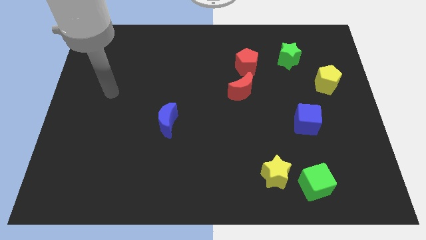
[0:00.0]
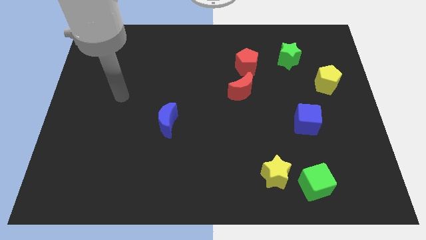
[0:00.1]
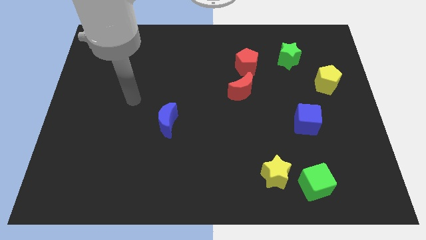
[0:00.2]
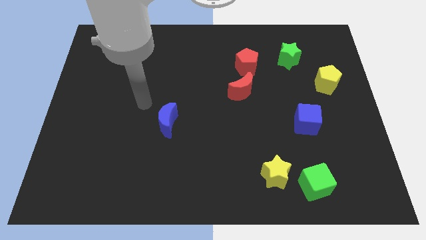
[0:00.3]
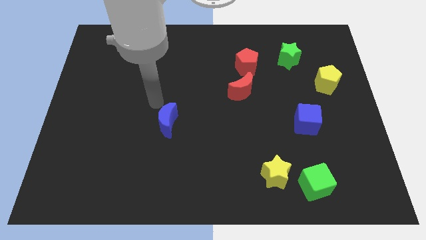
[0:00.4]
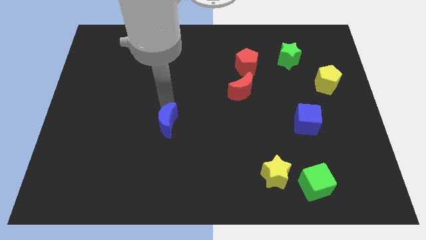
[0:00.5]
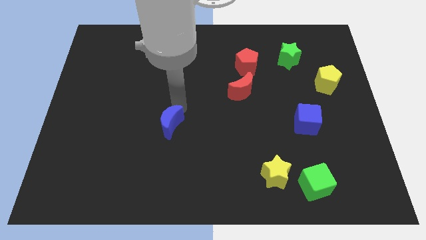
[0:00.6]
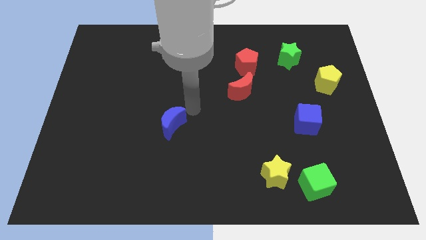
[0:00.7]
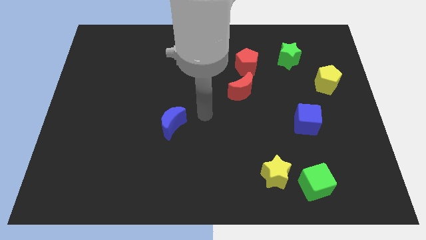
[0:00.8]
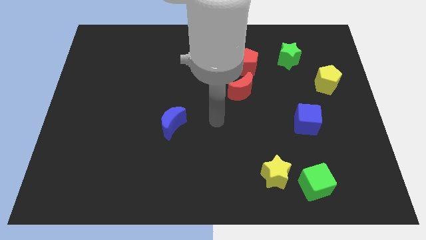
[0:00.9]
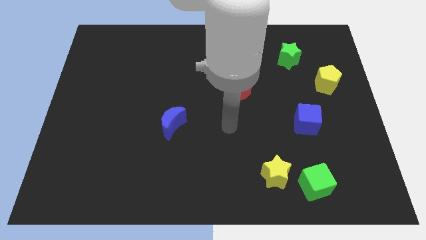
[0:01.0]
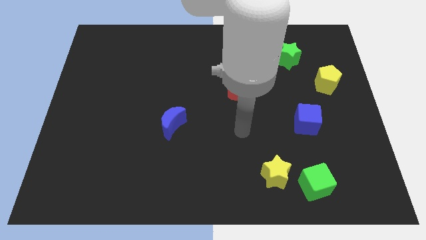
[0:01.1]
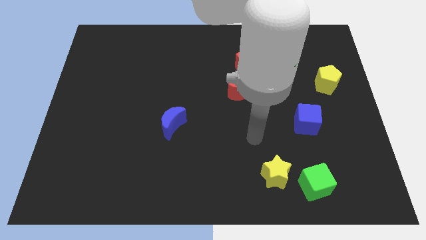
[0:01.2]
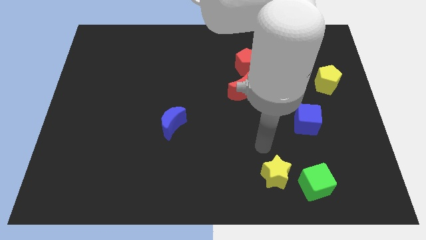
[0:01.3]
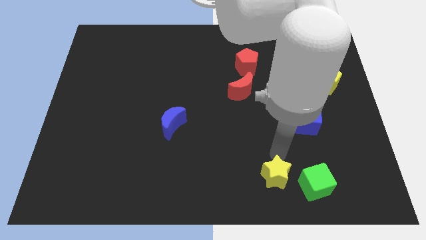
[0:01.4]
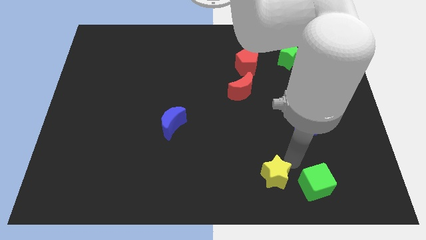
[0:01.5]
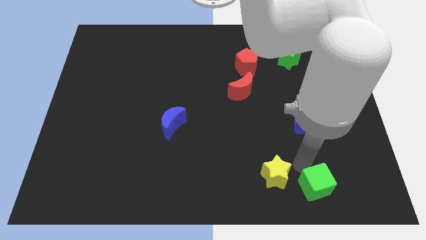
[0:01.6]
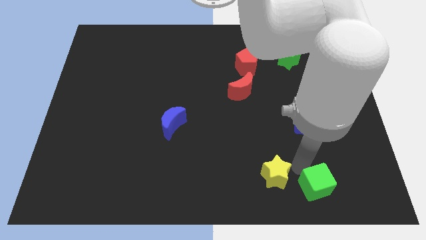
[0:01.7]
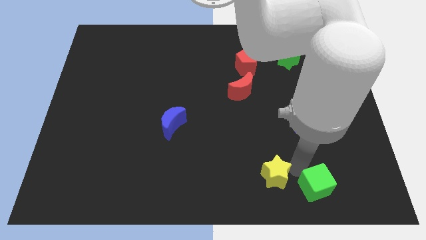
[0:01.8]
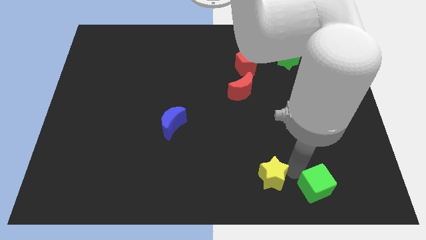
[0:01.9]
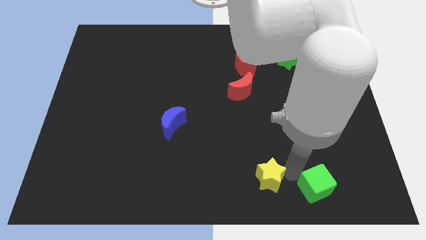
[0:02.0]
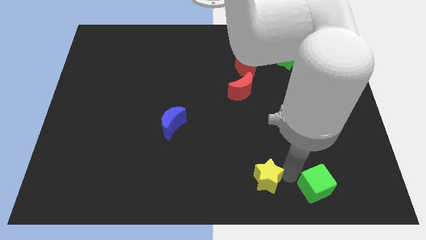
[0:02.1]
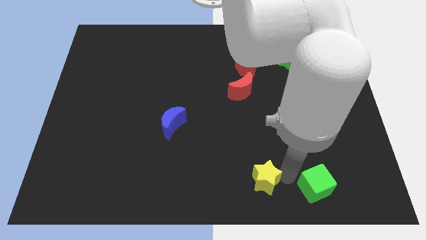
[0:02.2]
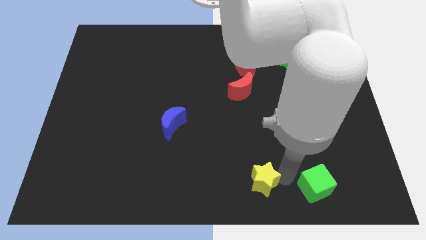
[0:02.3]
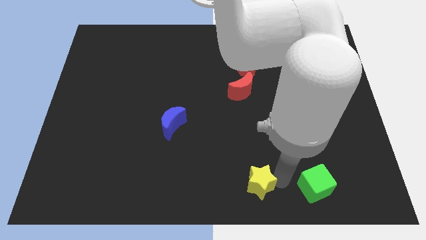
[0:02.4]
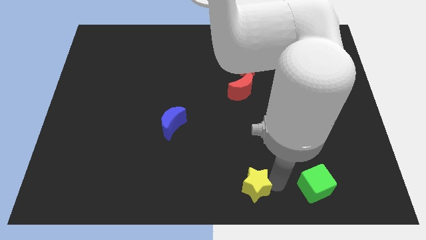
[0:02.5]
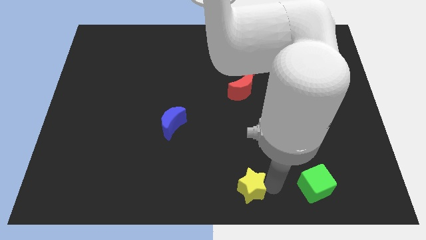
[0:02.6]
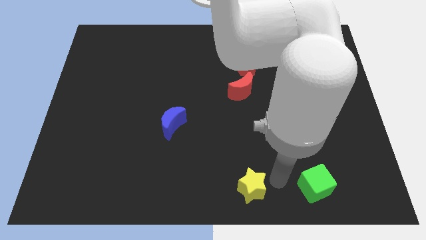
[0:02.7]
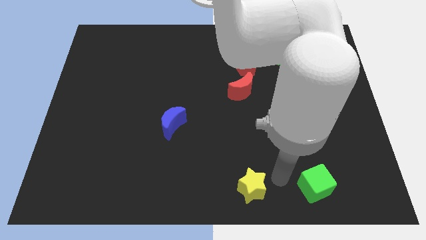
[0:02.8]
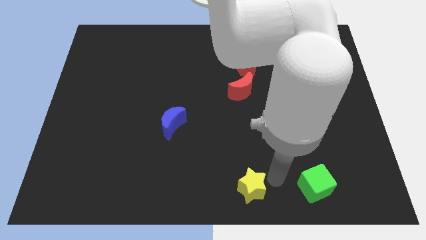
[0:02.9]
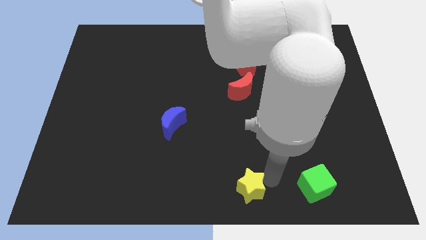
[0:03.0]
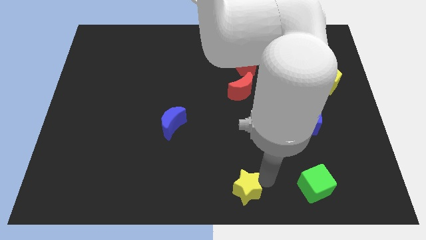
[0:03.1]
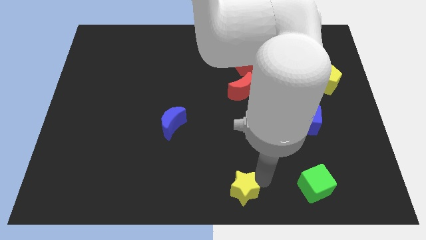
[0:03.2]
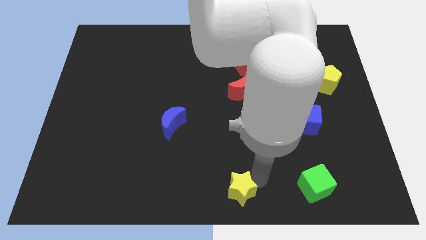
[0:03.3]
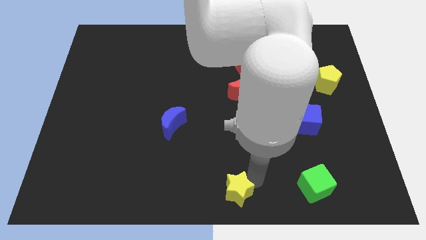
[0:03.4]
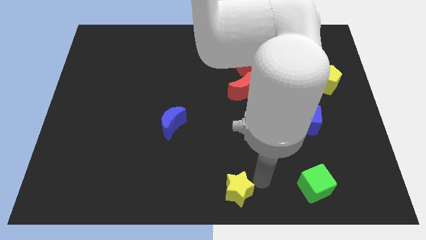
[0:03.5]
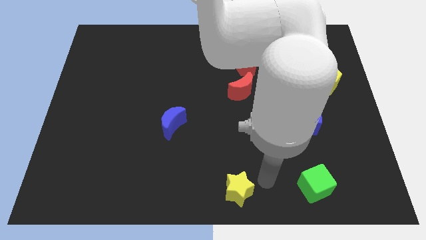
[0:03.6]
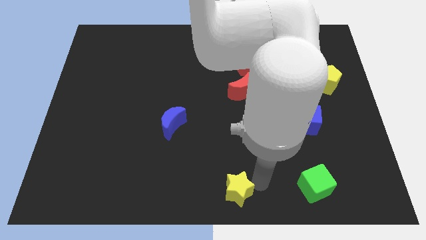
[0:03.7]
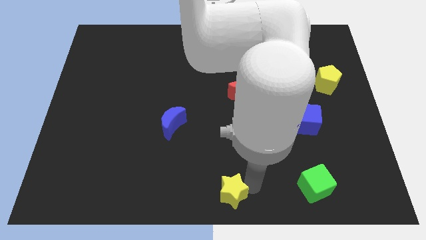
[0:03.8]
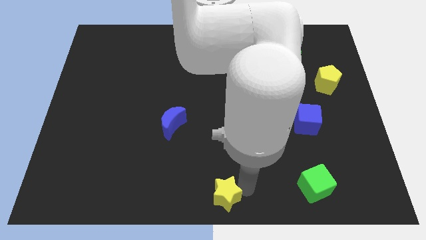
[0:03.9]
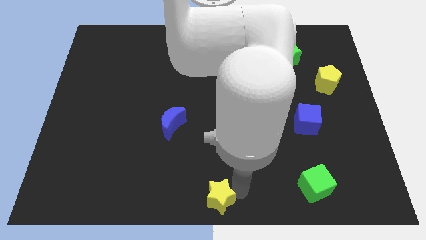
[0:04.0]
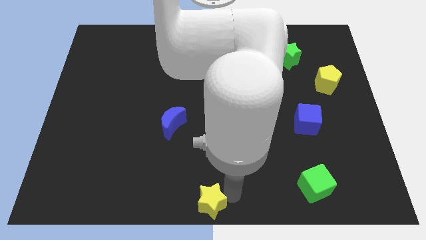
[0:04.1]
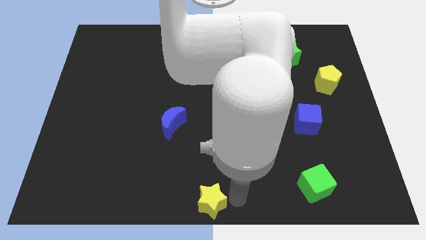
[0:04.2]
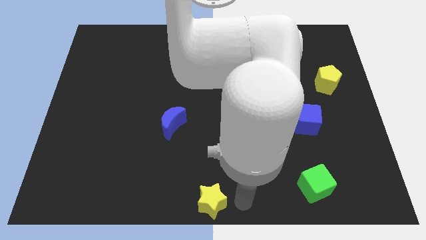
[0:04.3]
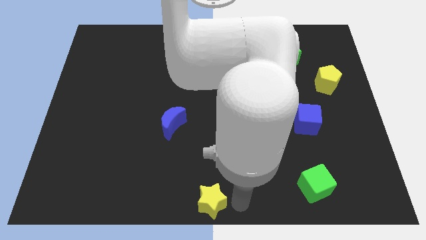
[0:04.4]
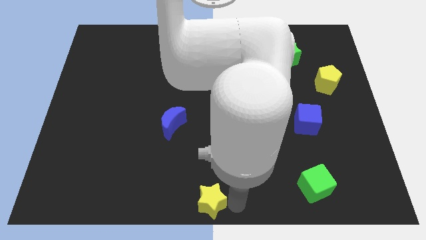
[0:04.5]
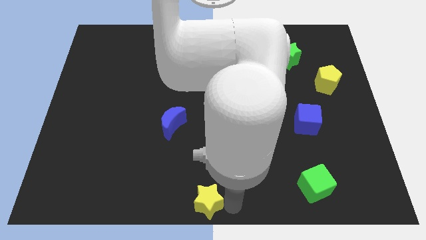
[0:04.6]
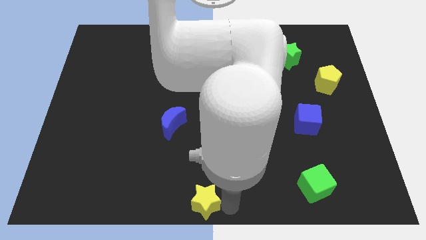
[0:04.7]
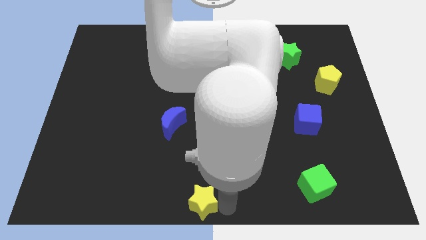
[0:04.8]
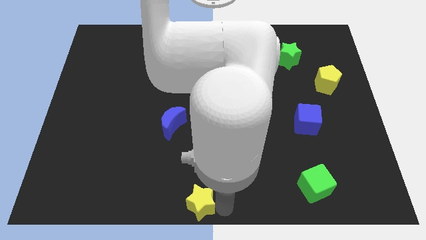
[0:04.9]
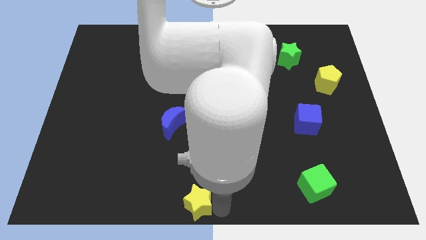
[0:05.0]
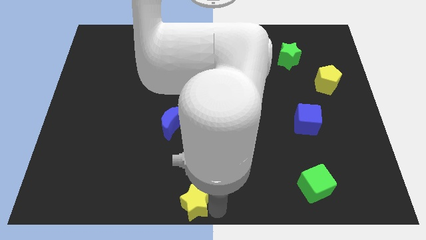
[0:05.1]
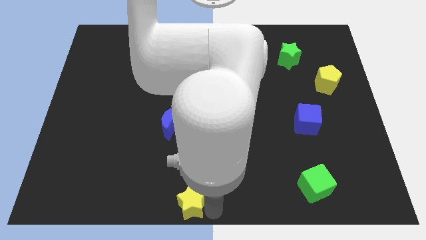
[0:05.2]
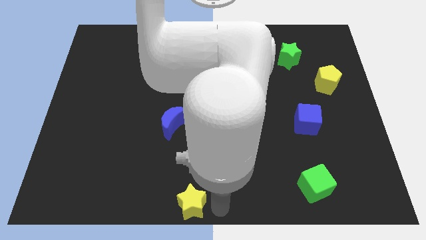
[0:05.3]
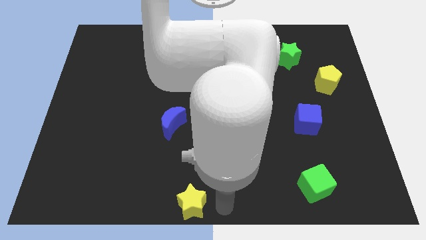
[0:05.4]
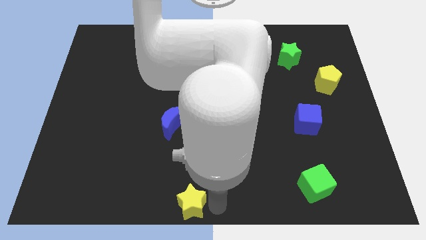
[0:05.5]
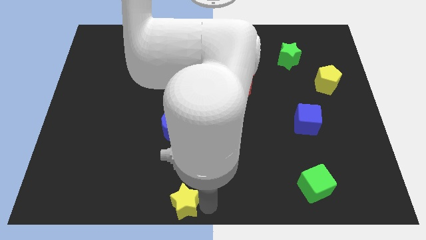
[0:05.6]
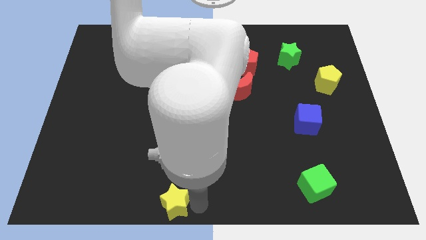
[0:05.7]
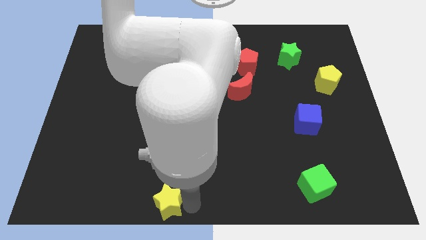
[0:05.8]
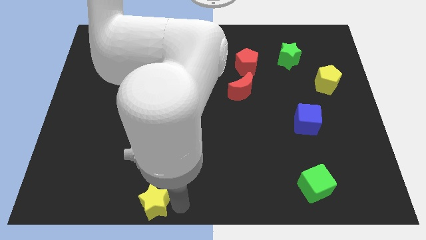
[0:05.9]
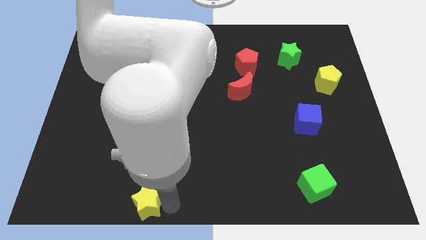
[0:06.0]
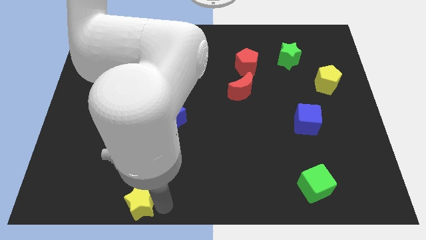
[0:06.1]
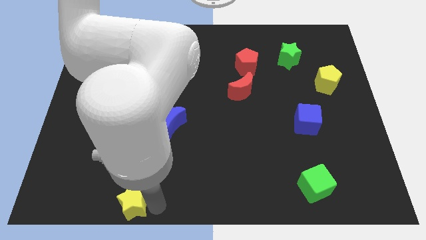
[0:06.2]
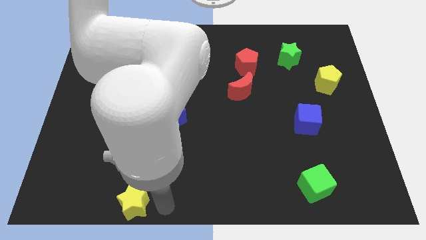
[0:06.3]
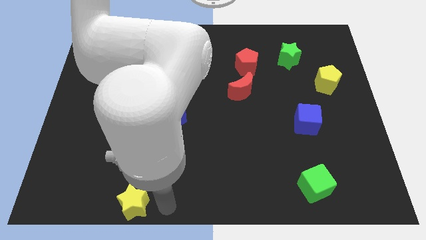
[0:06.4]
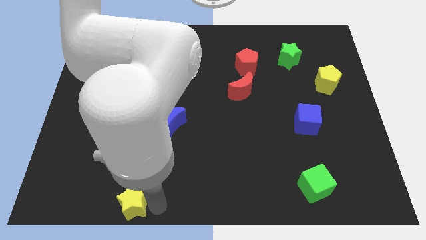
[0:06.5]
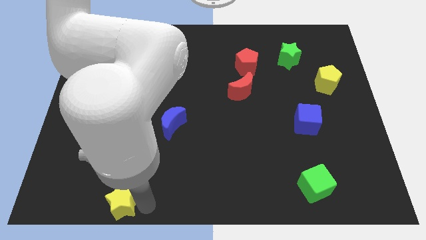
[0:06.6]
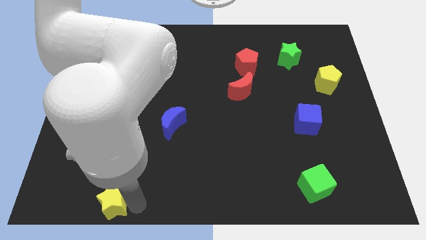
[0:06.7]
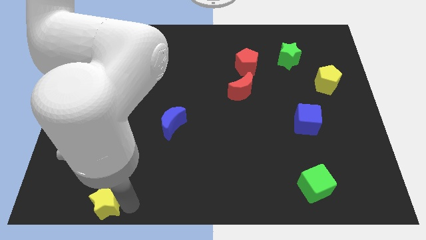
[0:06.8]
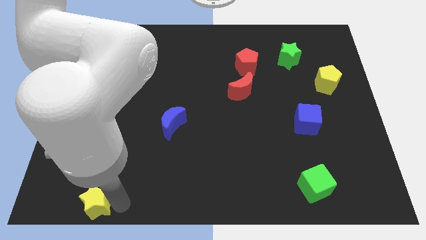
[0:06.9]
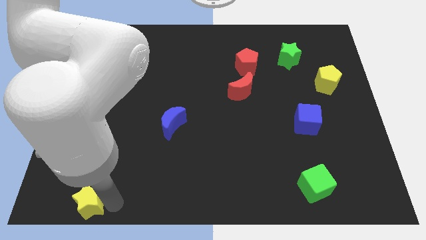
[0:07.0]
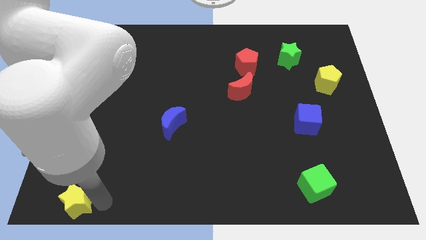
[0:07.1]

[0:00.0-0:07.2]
slide the yellow star to the bottom left corner

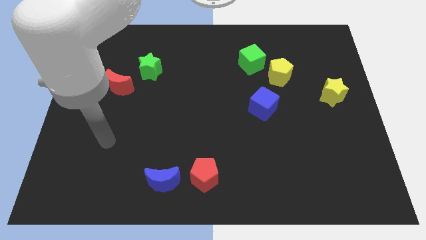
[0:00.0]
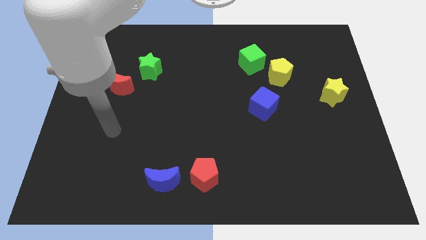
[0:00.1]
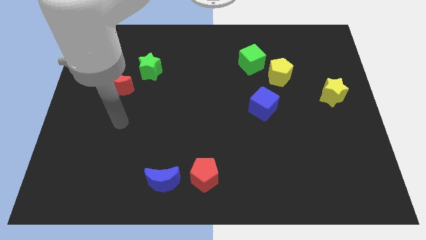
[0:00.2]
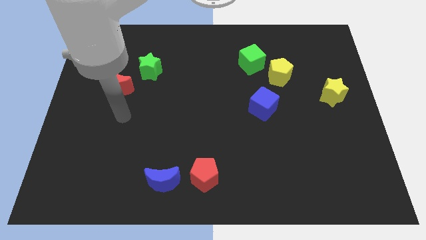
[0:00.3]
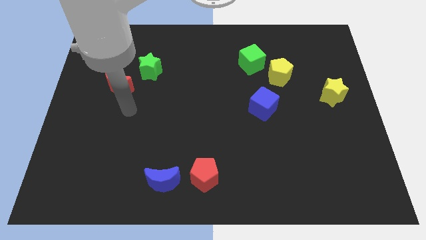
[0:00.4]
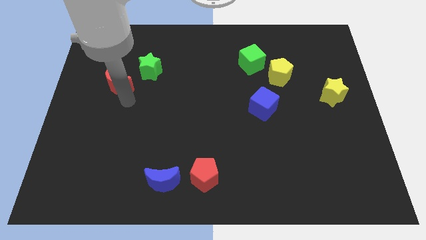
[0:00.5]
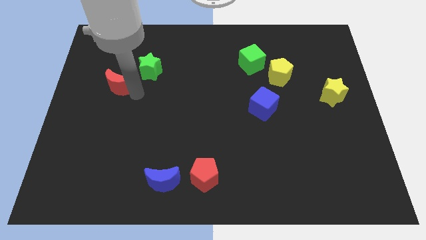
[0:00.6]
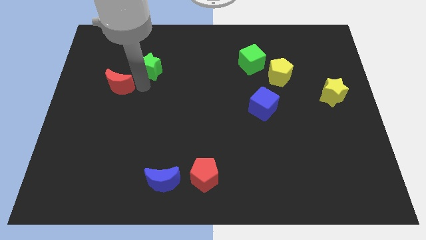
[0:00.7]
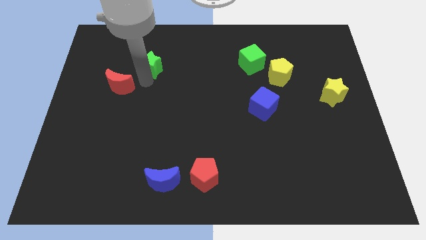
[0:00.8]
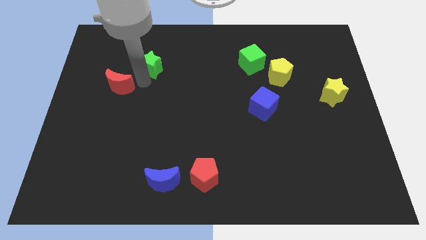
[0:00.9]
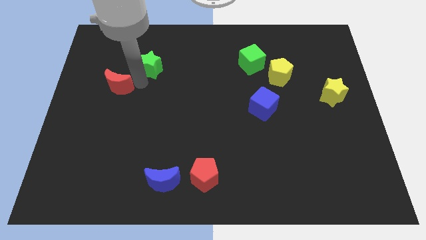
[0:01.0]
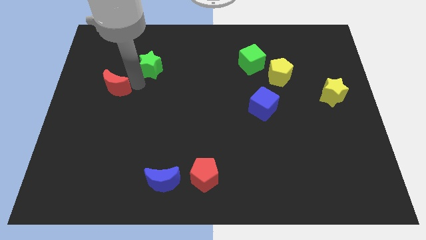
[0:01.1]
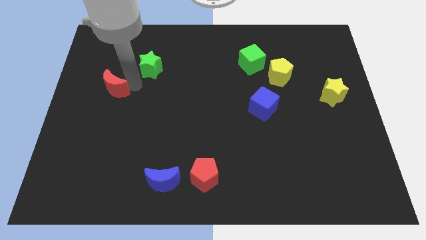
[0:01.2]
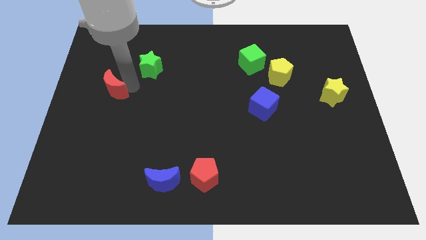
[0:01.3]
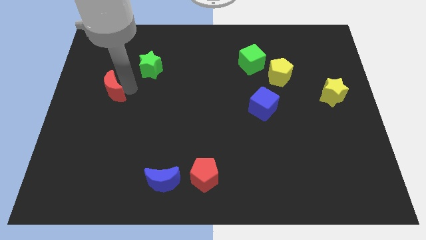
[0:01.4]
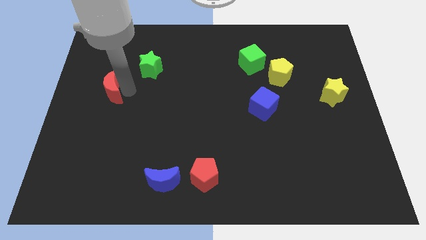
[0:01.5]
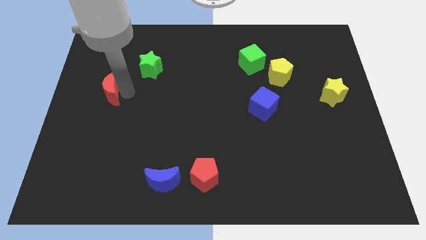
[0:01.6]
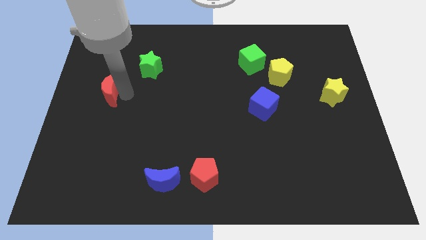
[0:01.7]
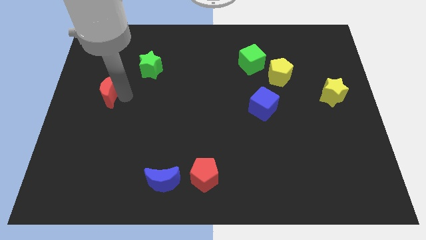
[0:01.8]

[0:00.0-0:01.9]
push the red moon to the center left
